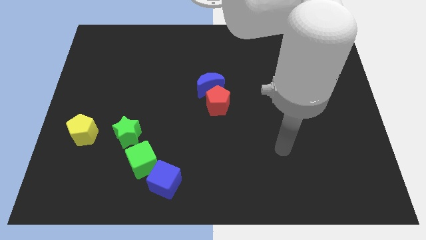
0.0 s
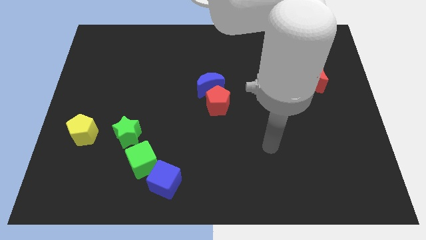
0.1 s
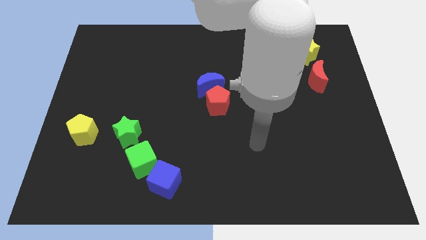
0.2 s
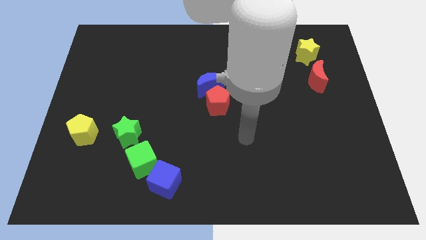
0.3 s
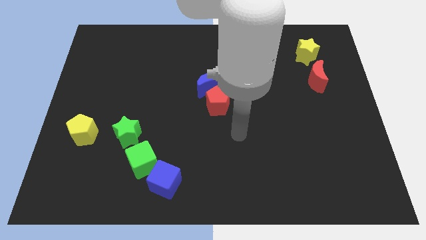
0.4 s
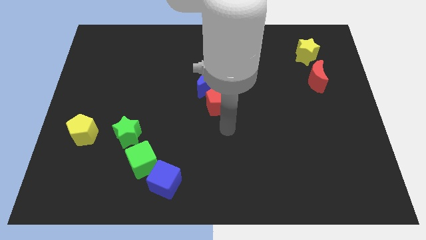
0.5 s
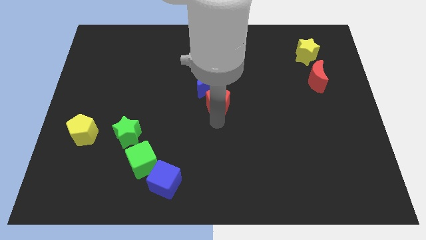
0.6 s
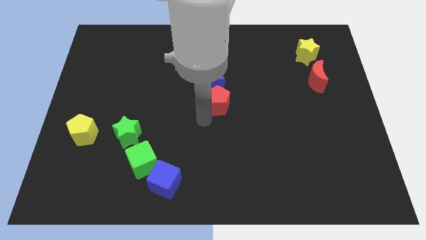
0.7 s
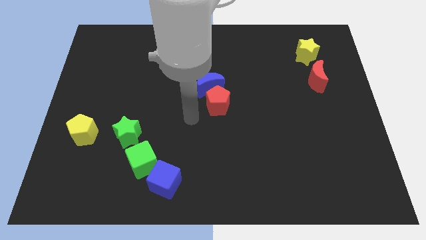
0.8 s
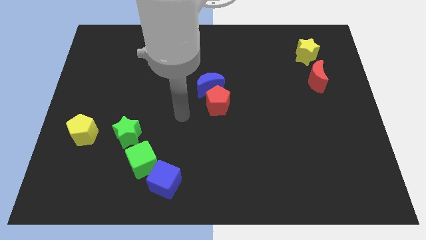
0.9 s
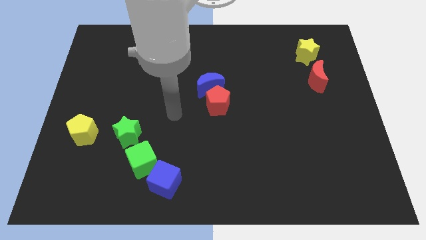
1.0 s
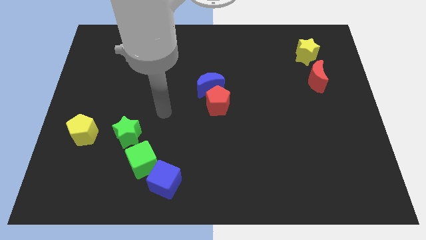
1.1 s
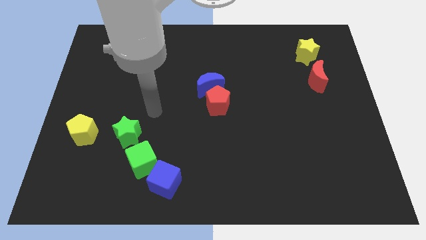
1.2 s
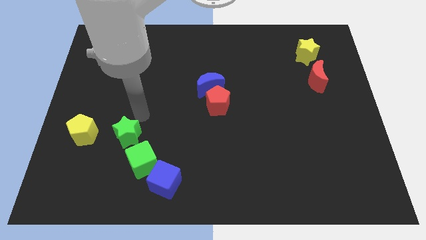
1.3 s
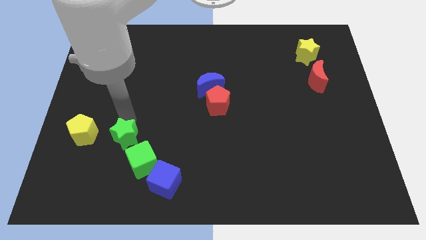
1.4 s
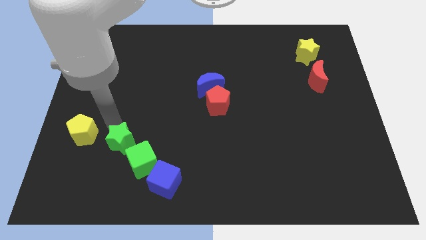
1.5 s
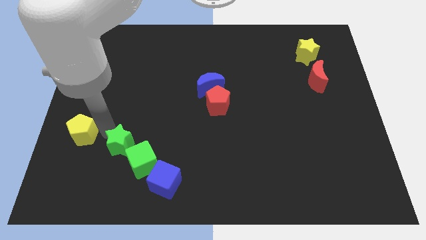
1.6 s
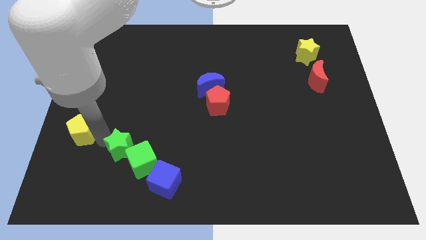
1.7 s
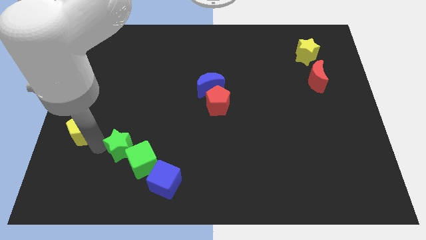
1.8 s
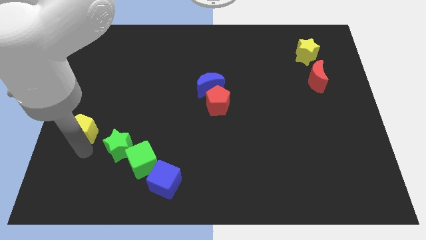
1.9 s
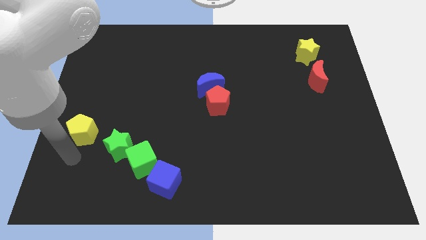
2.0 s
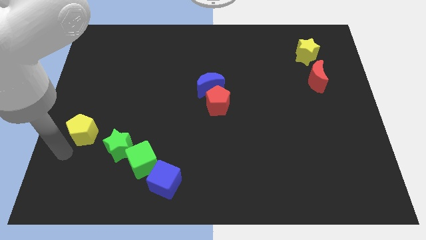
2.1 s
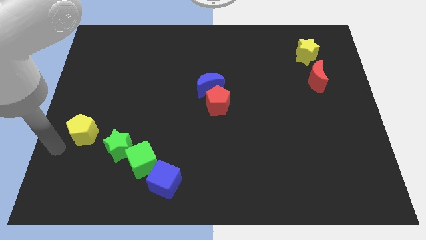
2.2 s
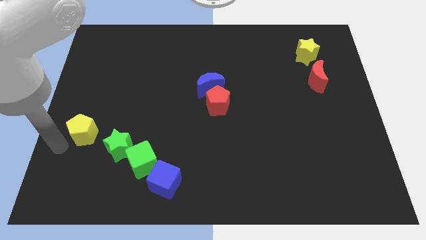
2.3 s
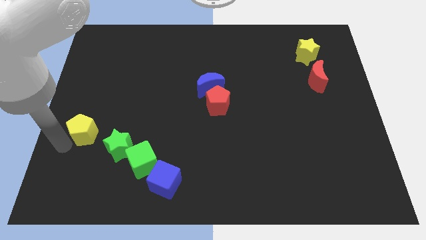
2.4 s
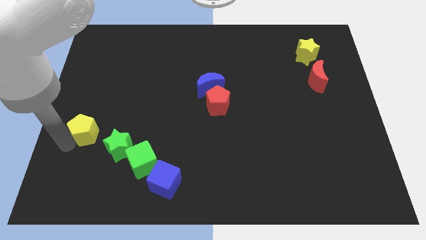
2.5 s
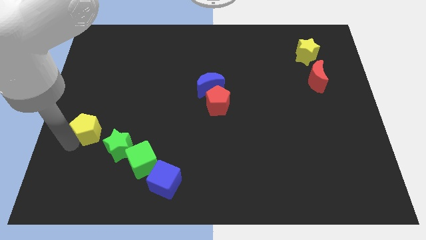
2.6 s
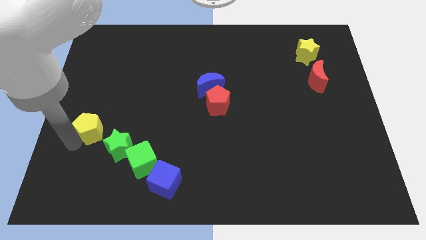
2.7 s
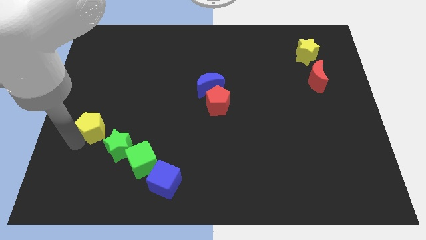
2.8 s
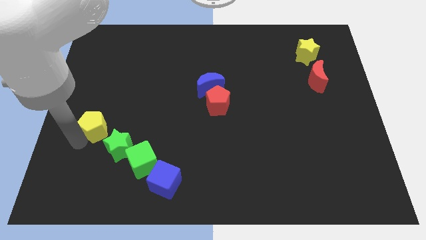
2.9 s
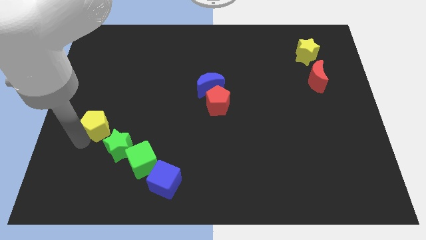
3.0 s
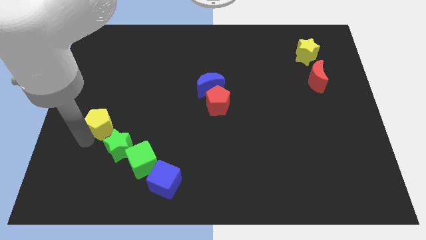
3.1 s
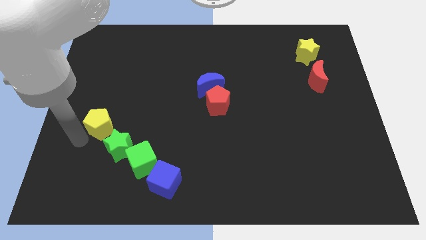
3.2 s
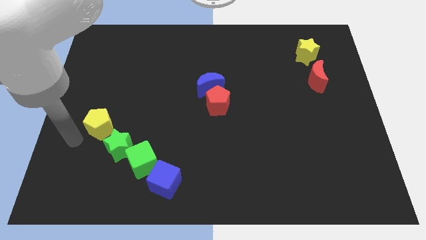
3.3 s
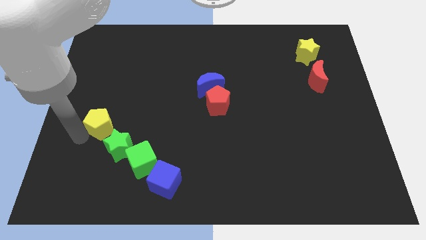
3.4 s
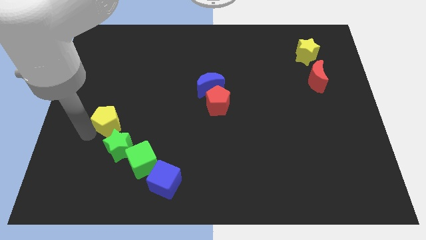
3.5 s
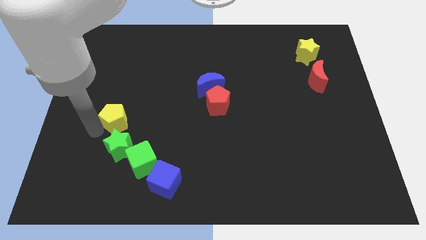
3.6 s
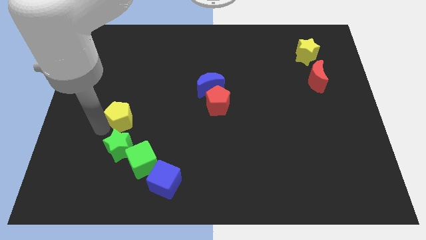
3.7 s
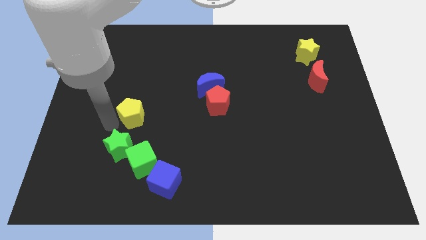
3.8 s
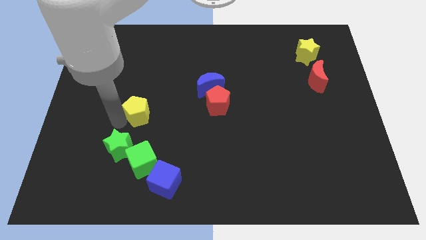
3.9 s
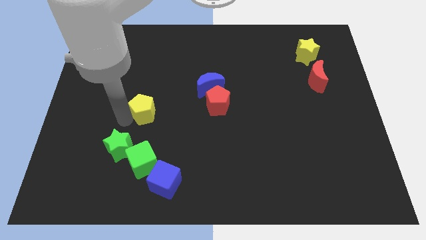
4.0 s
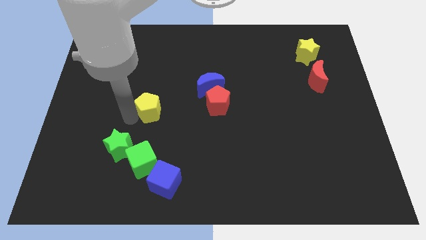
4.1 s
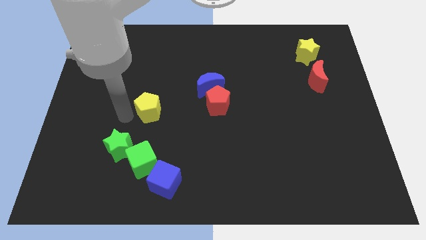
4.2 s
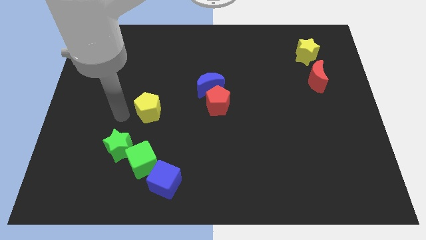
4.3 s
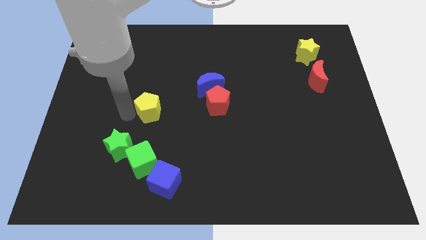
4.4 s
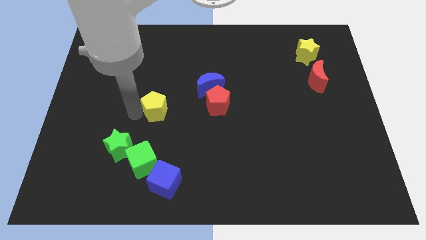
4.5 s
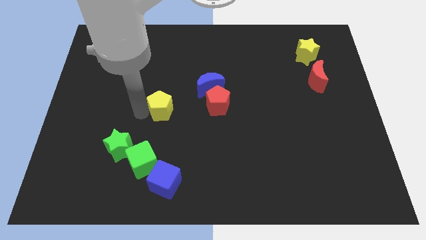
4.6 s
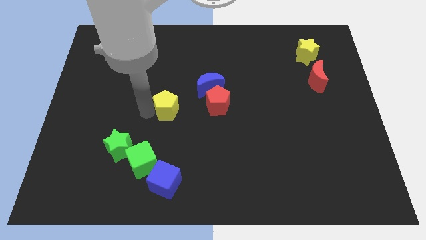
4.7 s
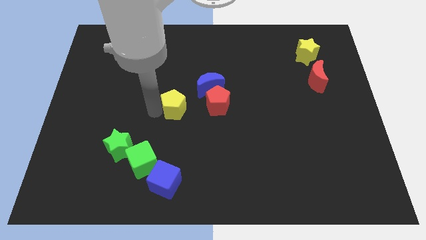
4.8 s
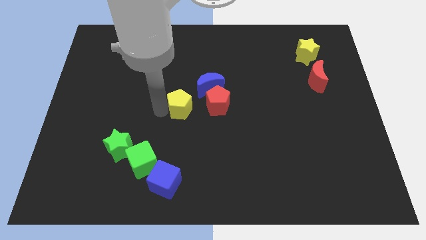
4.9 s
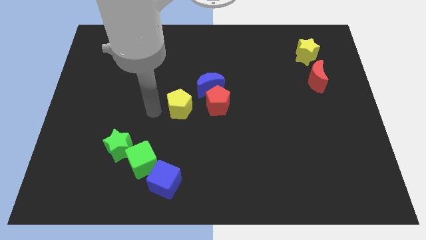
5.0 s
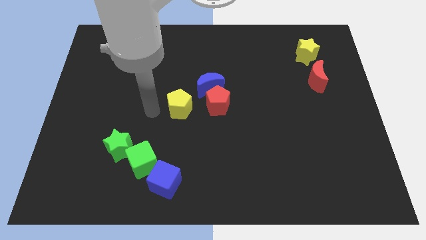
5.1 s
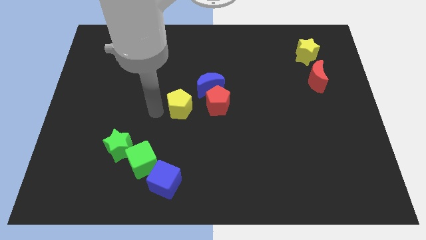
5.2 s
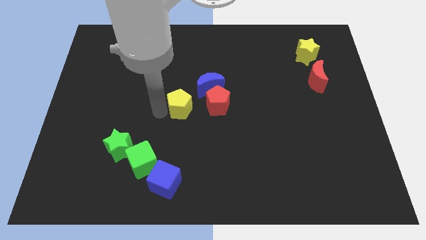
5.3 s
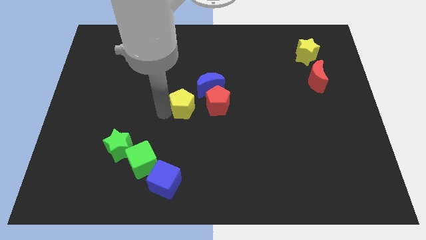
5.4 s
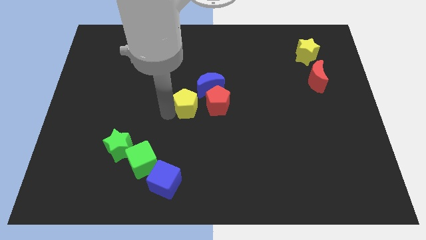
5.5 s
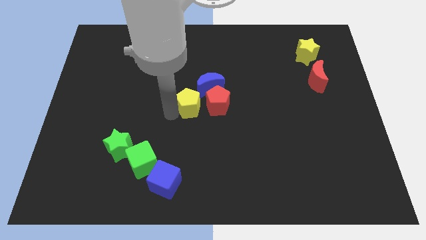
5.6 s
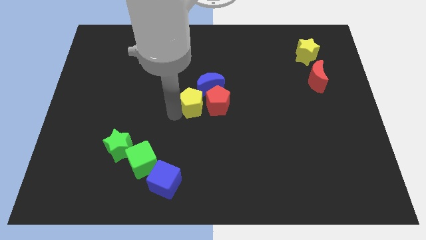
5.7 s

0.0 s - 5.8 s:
put the yellow pentagon close to the red pentagon

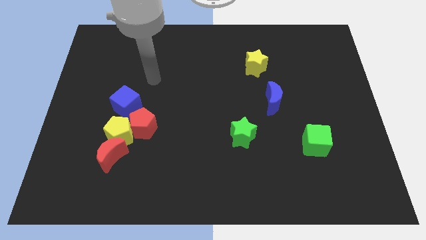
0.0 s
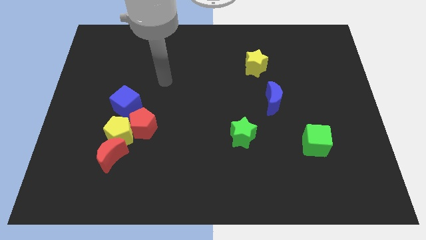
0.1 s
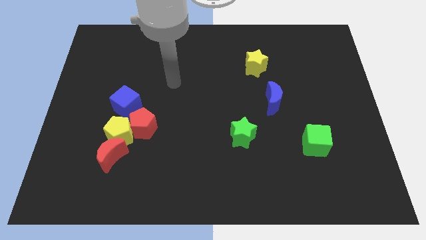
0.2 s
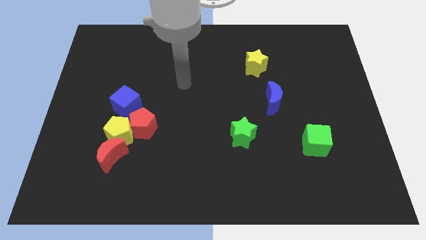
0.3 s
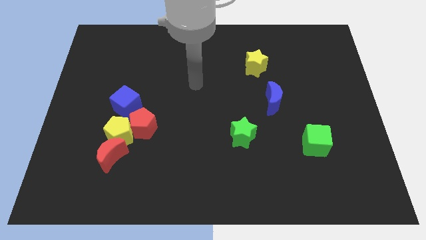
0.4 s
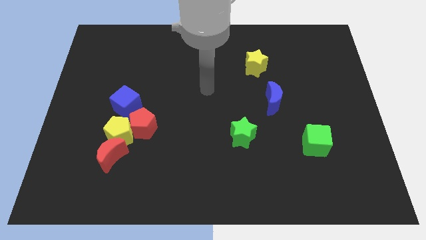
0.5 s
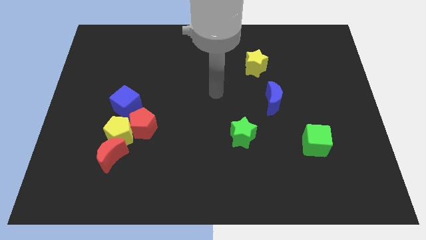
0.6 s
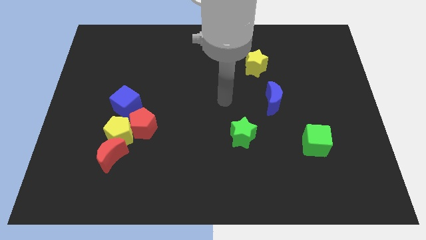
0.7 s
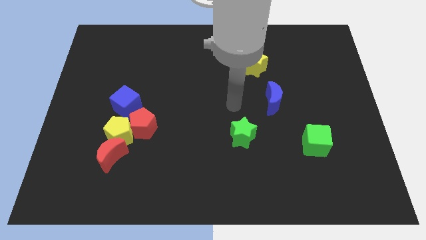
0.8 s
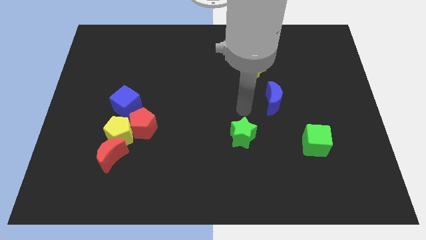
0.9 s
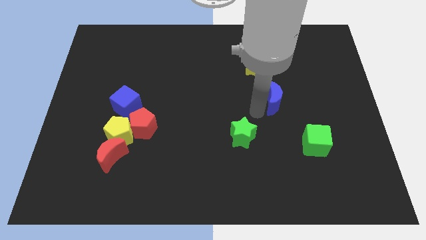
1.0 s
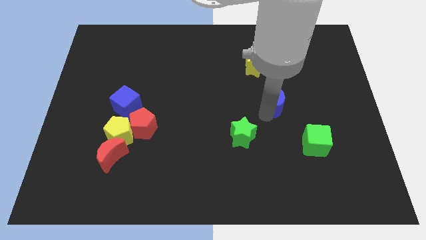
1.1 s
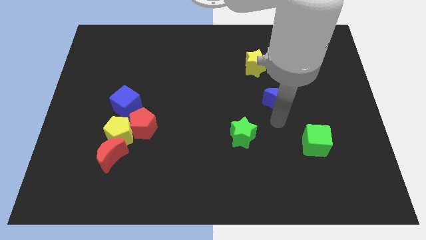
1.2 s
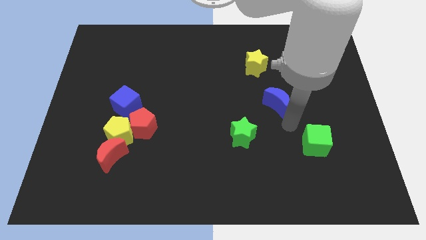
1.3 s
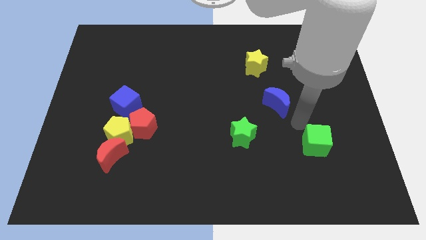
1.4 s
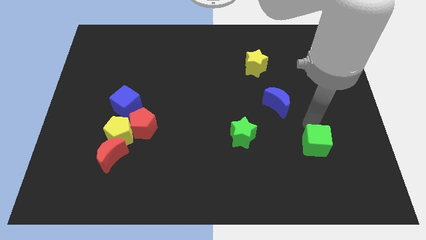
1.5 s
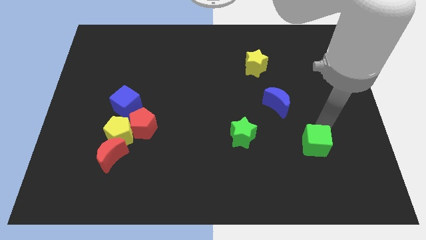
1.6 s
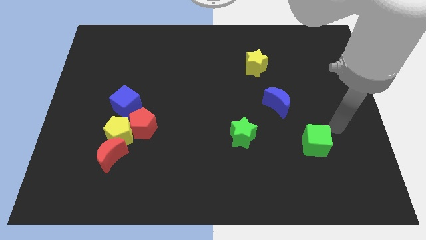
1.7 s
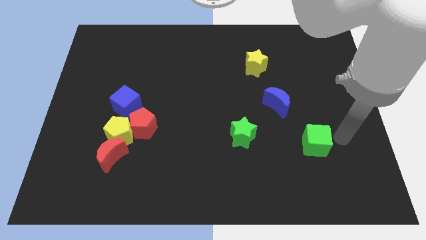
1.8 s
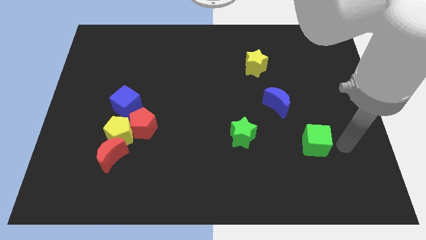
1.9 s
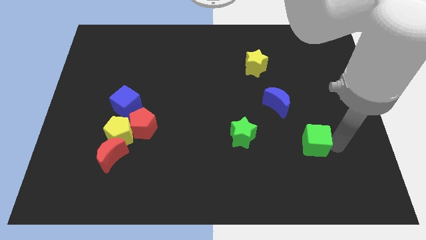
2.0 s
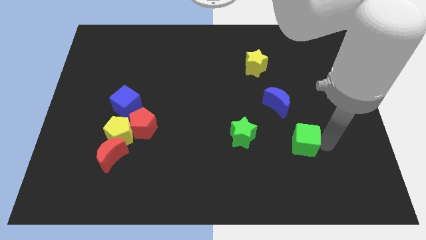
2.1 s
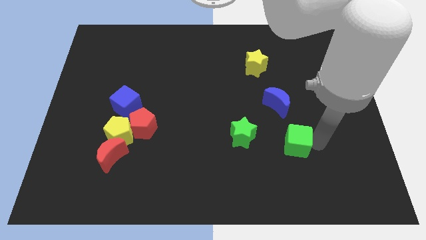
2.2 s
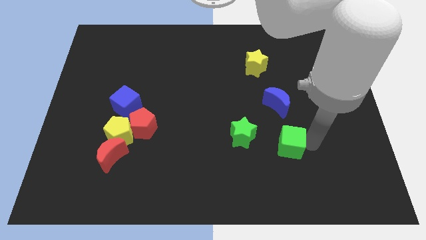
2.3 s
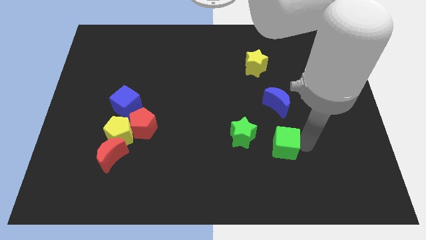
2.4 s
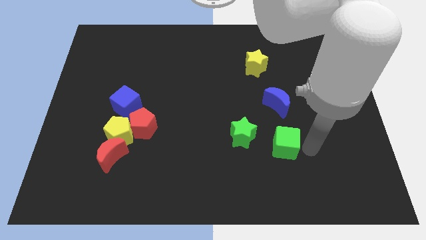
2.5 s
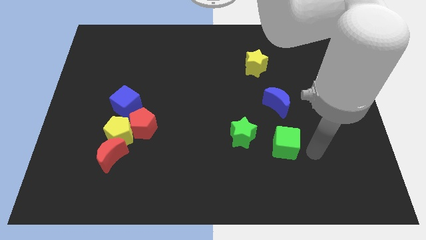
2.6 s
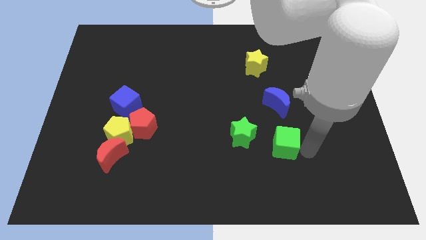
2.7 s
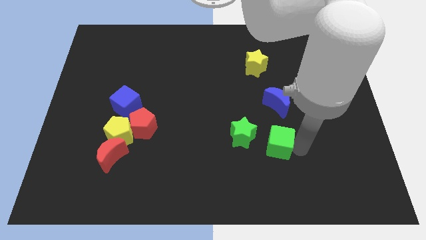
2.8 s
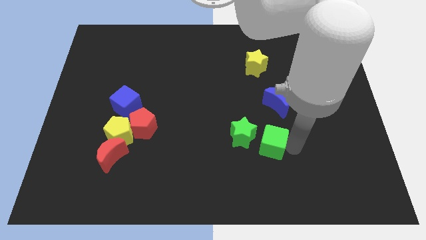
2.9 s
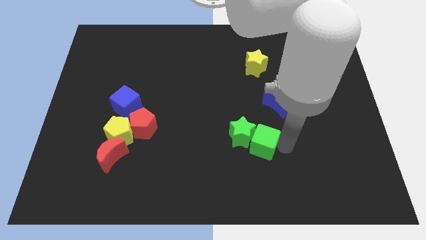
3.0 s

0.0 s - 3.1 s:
push the green cube to the green star
